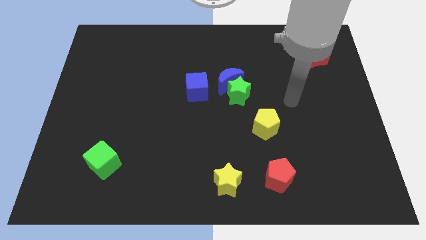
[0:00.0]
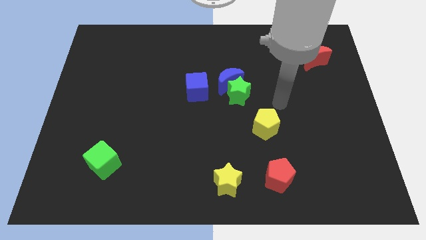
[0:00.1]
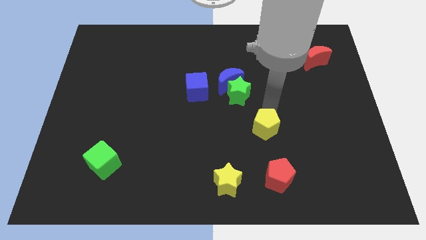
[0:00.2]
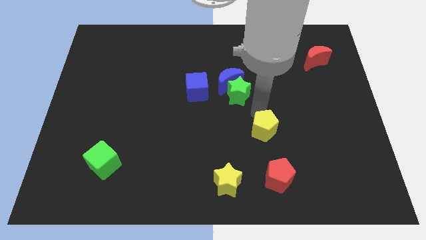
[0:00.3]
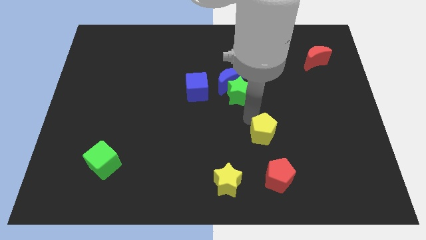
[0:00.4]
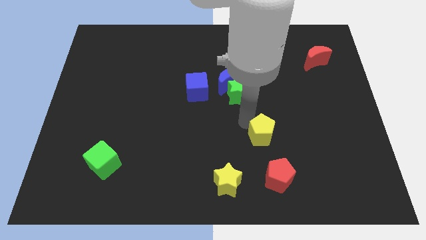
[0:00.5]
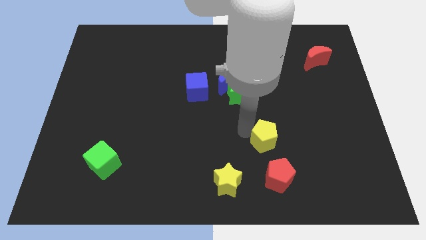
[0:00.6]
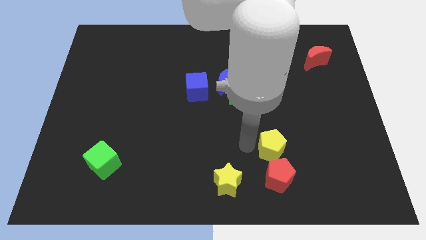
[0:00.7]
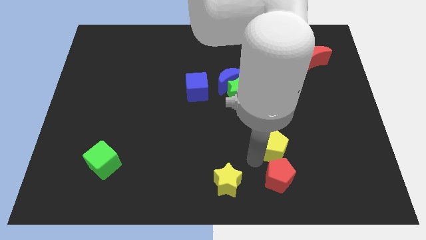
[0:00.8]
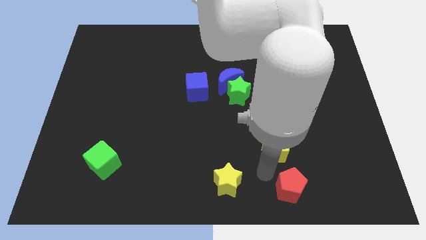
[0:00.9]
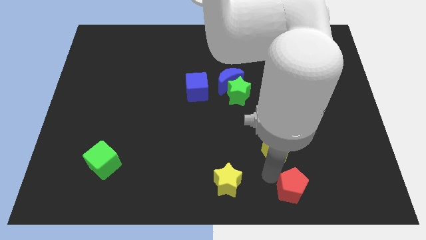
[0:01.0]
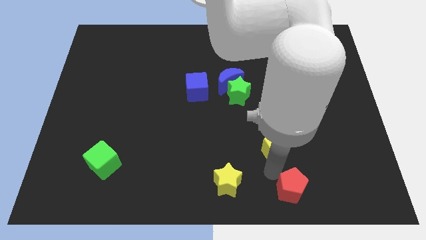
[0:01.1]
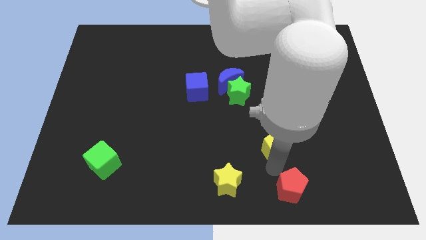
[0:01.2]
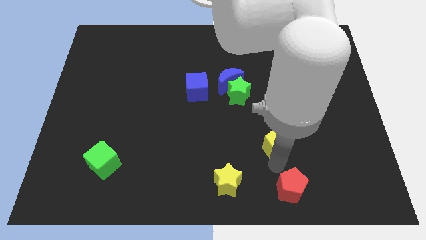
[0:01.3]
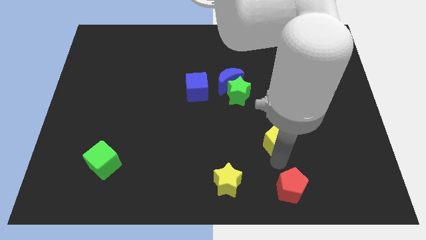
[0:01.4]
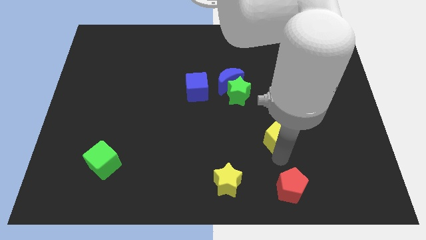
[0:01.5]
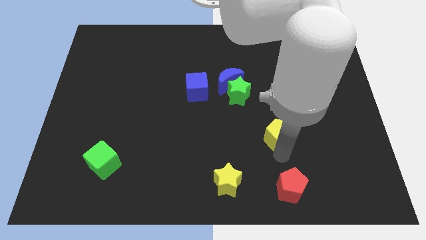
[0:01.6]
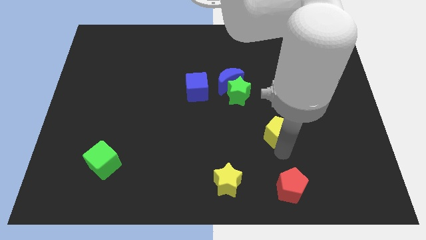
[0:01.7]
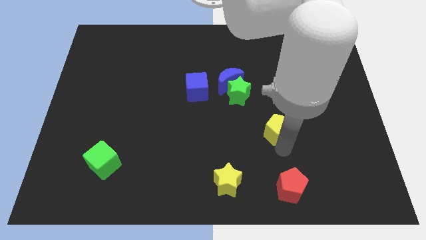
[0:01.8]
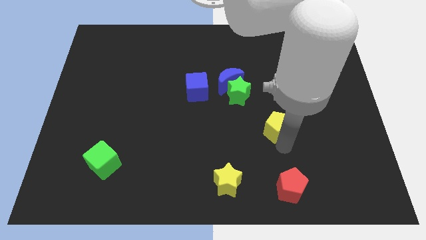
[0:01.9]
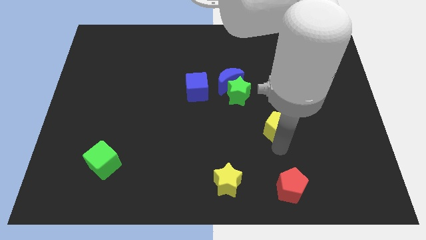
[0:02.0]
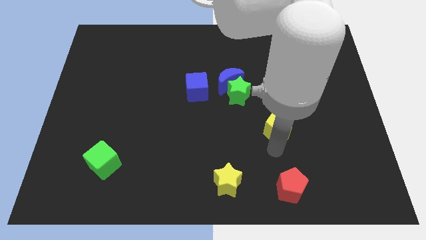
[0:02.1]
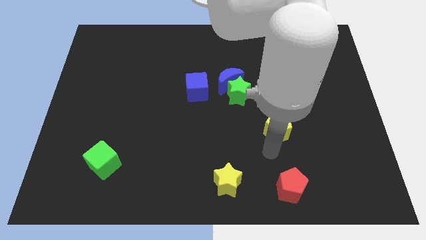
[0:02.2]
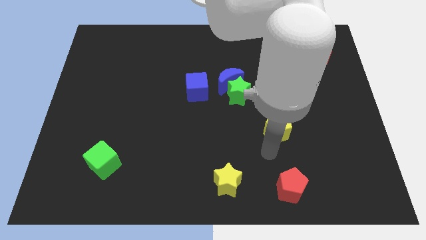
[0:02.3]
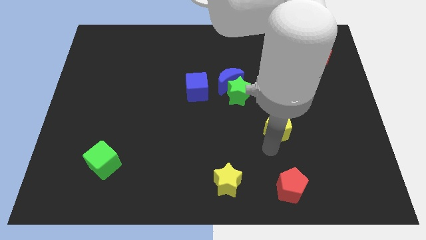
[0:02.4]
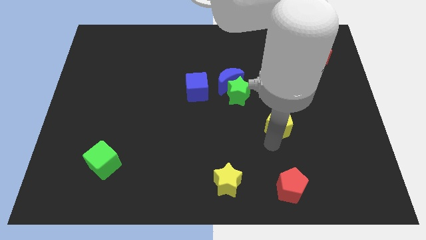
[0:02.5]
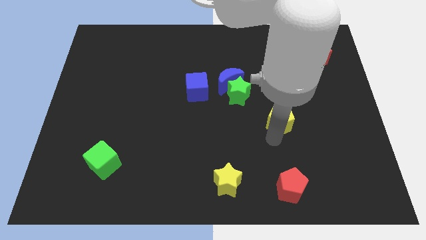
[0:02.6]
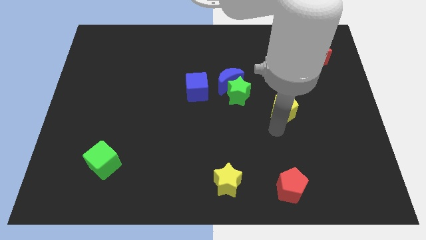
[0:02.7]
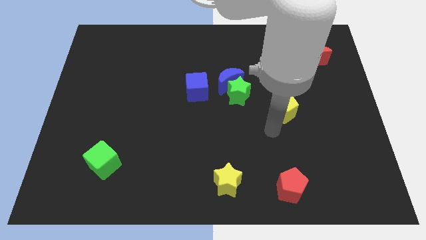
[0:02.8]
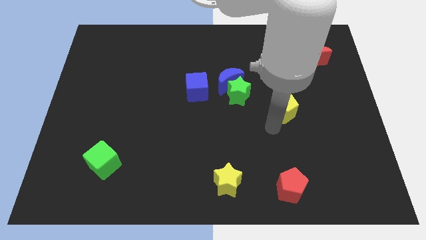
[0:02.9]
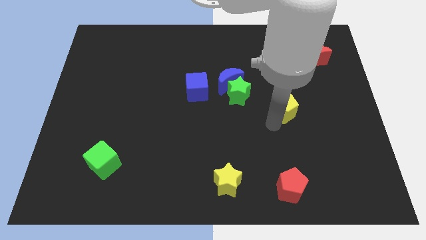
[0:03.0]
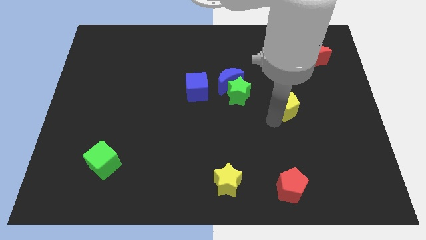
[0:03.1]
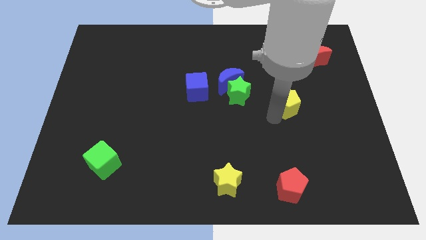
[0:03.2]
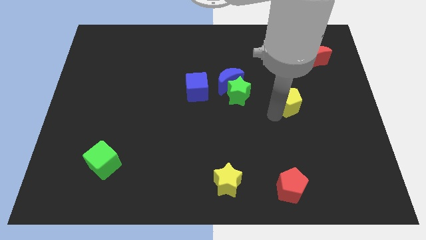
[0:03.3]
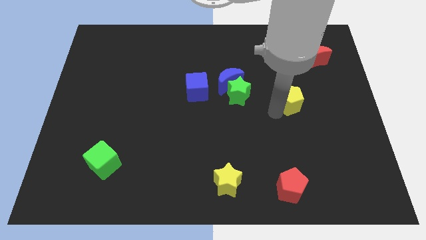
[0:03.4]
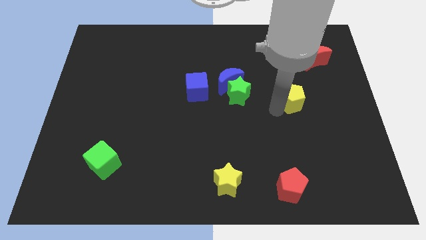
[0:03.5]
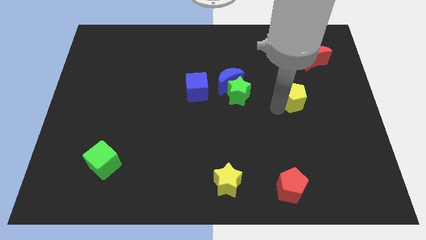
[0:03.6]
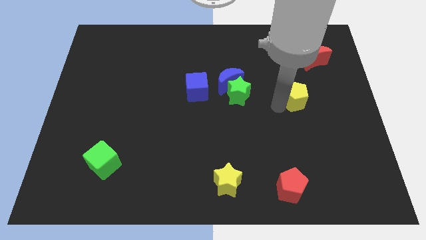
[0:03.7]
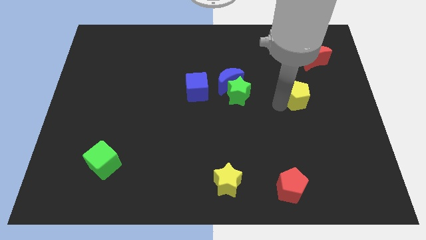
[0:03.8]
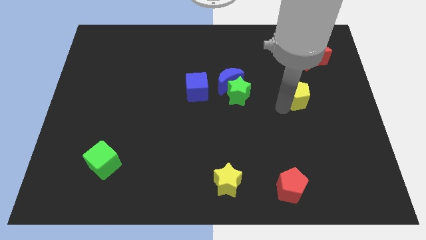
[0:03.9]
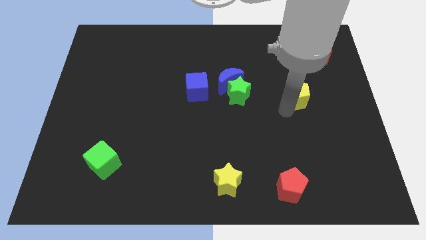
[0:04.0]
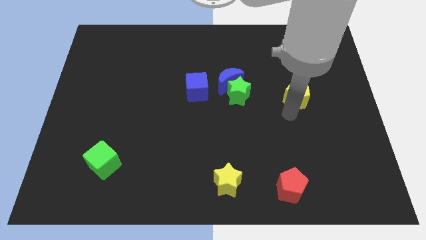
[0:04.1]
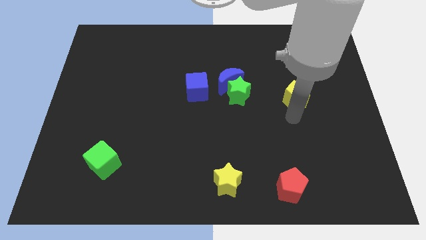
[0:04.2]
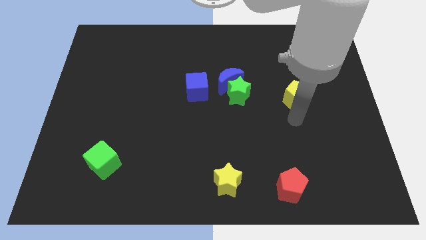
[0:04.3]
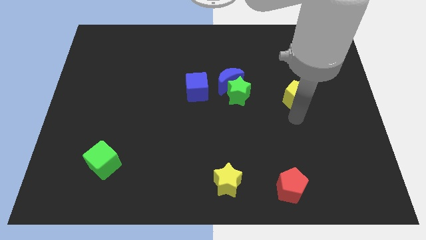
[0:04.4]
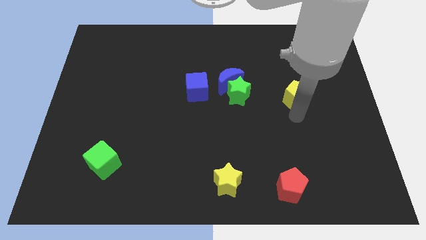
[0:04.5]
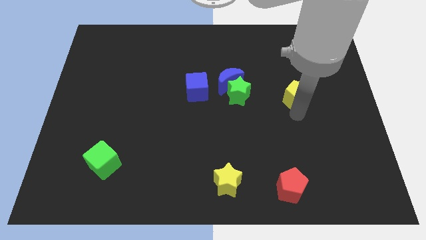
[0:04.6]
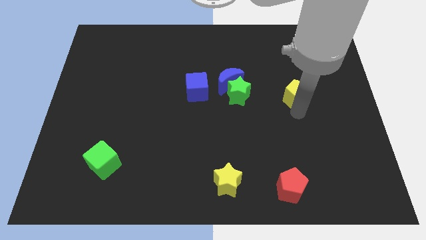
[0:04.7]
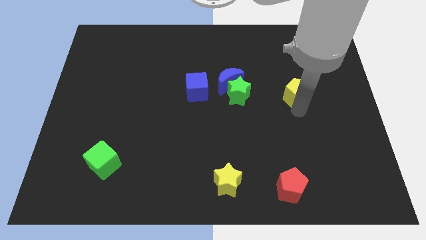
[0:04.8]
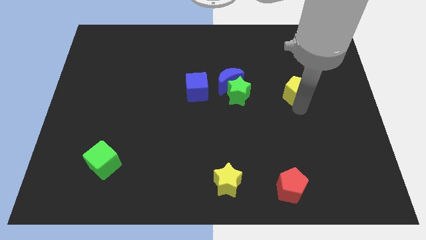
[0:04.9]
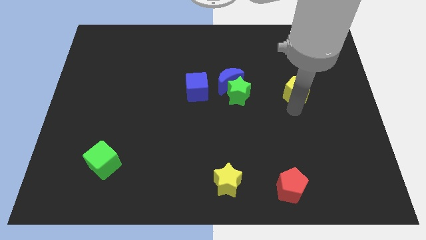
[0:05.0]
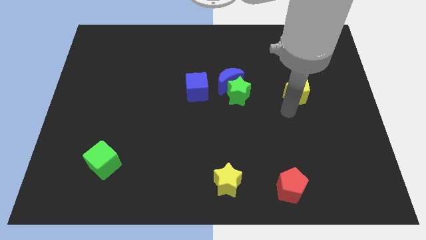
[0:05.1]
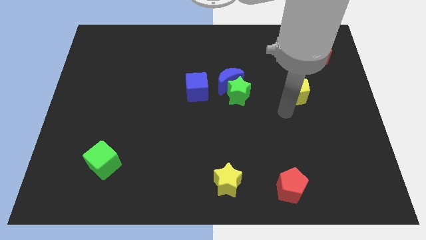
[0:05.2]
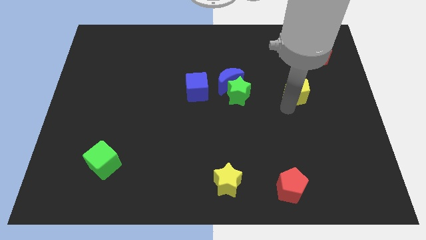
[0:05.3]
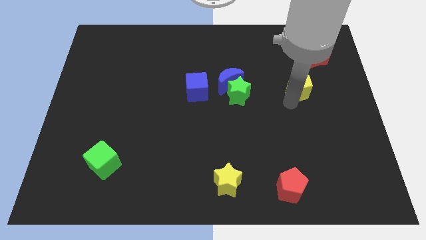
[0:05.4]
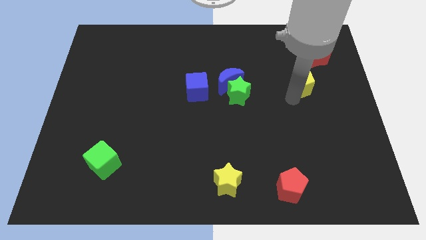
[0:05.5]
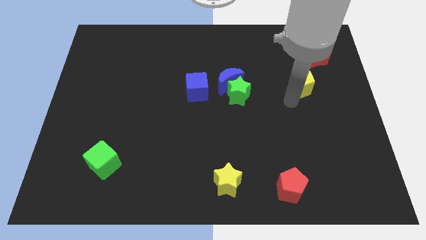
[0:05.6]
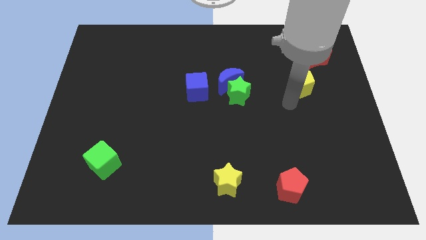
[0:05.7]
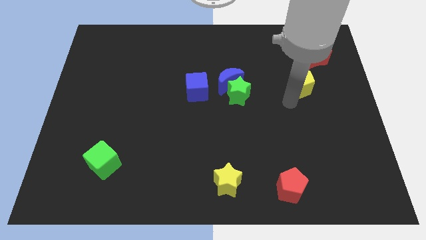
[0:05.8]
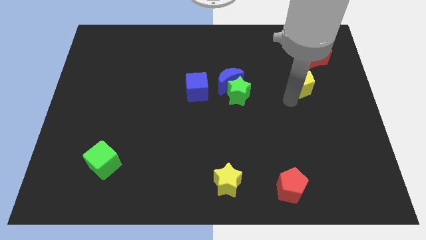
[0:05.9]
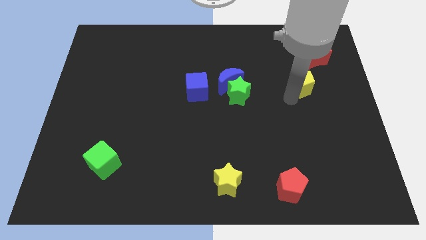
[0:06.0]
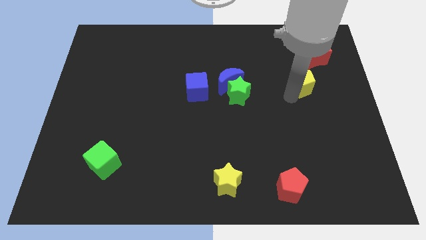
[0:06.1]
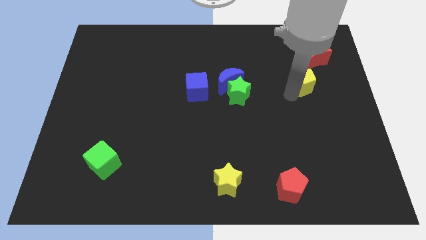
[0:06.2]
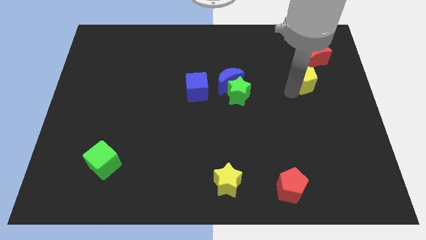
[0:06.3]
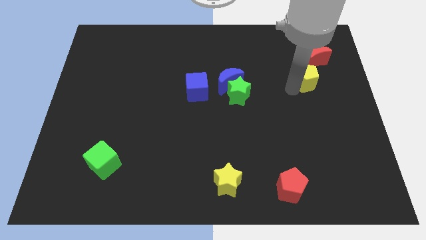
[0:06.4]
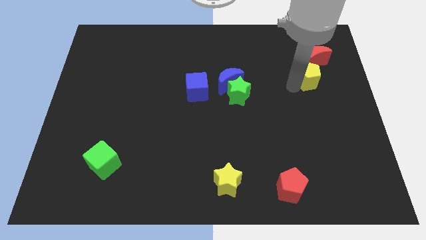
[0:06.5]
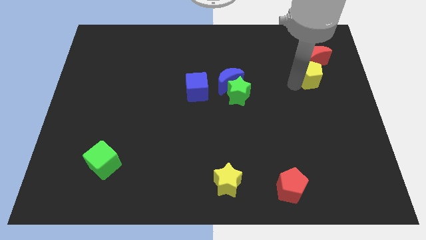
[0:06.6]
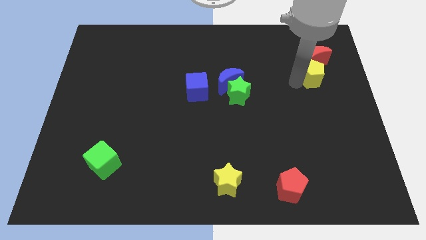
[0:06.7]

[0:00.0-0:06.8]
slide the yellow pentagon towards the red moon
